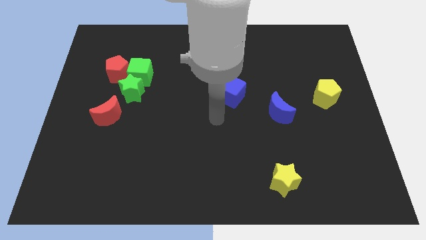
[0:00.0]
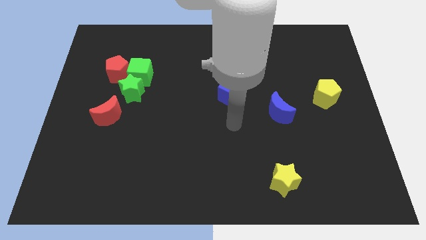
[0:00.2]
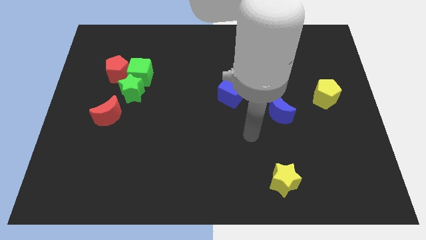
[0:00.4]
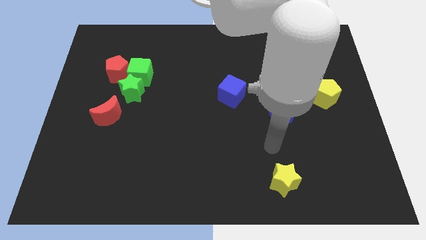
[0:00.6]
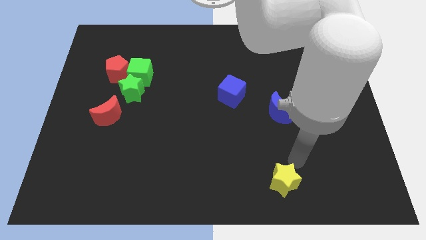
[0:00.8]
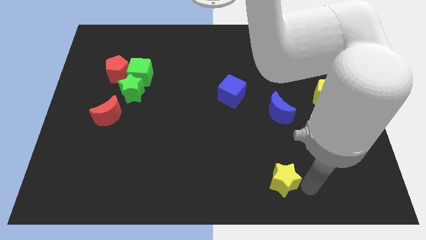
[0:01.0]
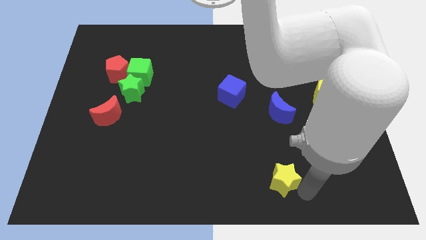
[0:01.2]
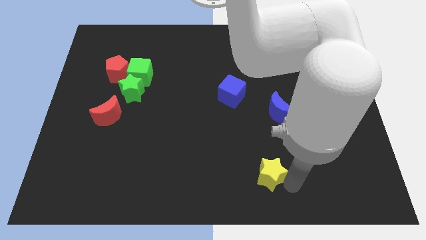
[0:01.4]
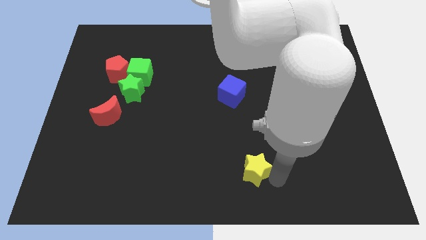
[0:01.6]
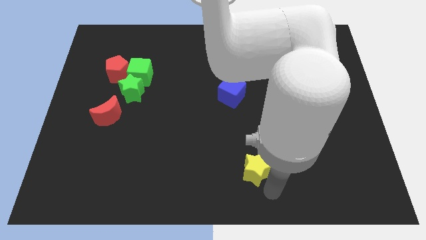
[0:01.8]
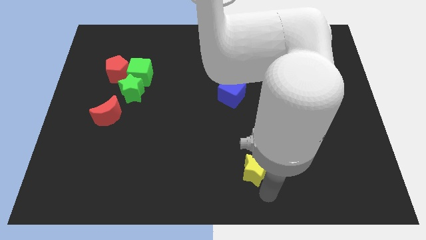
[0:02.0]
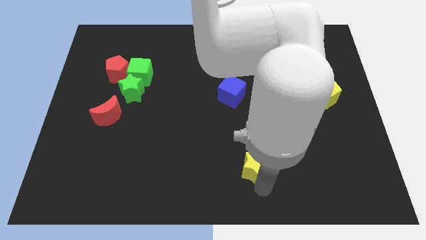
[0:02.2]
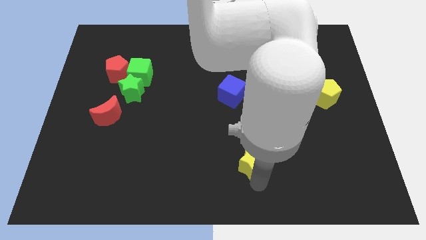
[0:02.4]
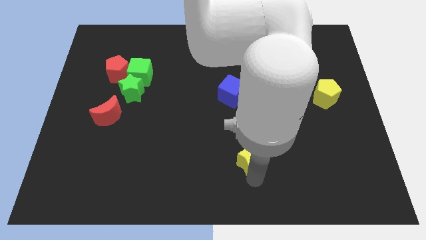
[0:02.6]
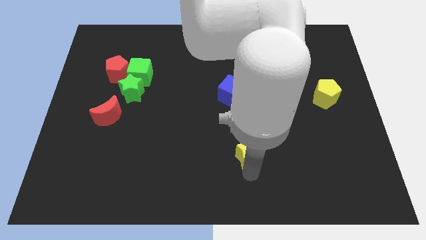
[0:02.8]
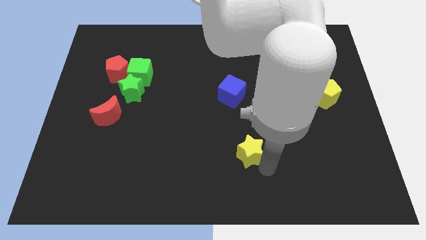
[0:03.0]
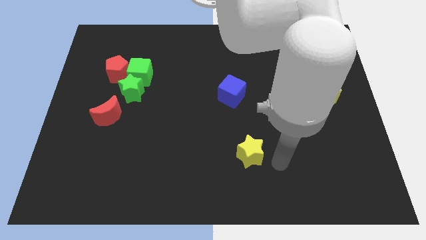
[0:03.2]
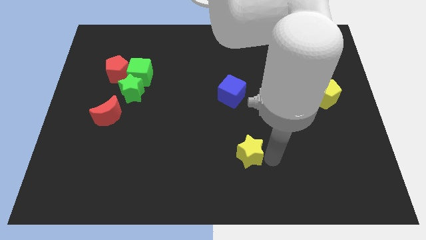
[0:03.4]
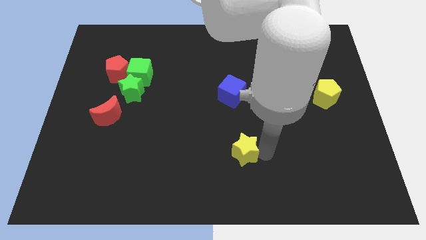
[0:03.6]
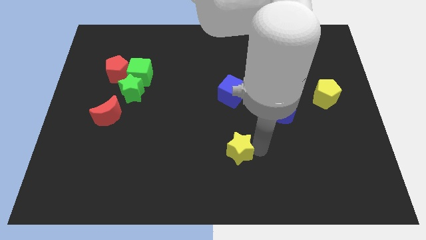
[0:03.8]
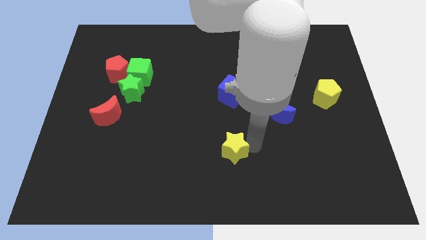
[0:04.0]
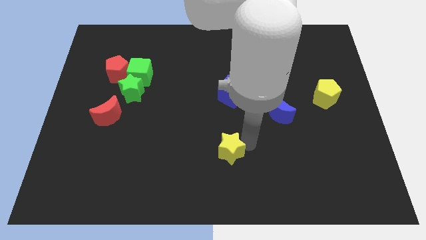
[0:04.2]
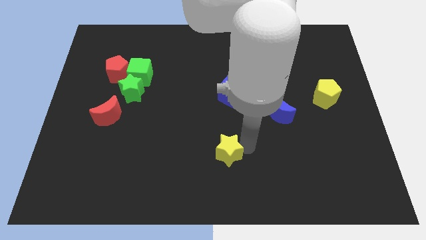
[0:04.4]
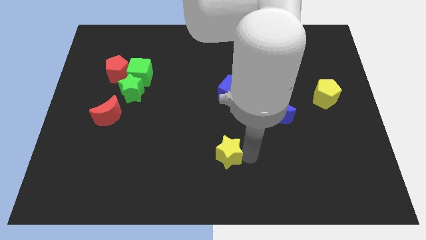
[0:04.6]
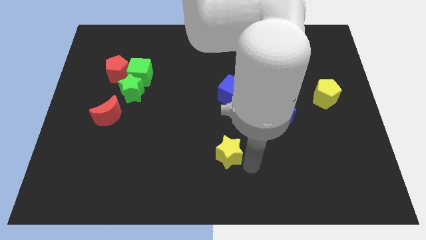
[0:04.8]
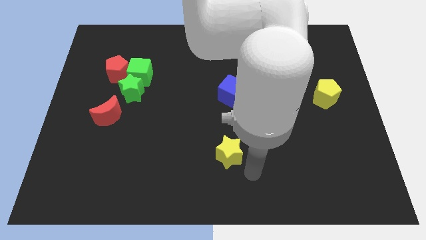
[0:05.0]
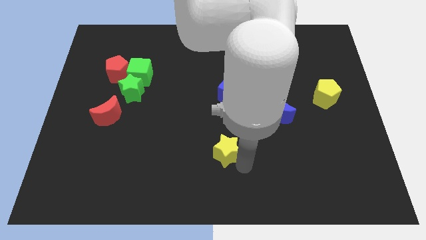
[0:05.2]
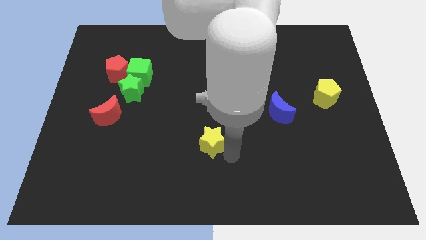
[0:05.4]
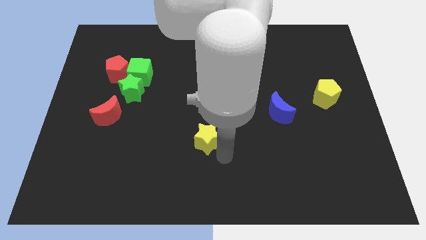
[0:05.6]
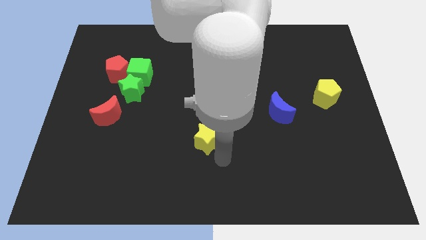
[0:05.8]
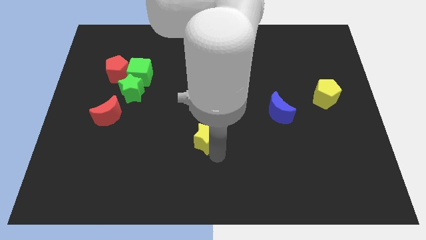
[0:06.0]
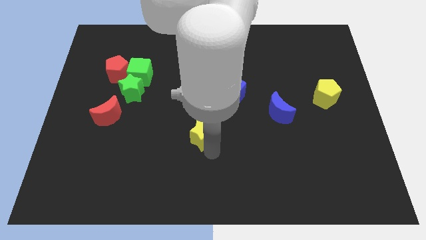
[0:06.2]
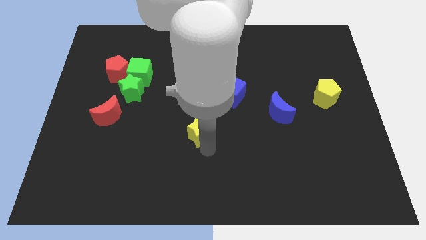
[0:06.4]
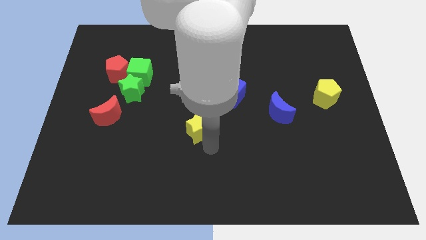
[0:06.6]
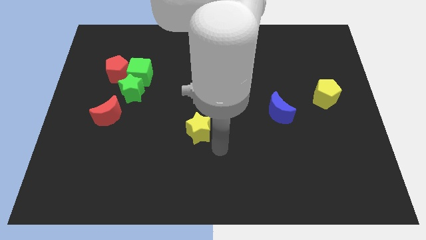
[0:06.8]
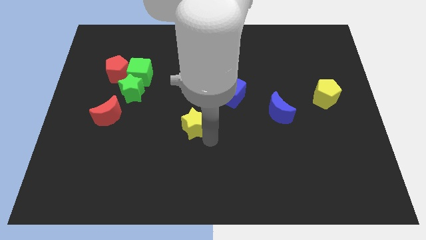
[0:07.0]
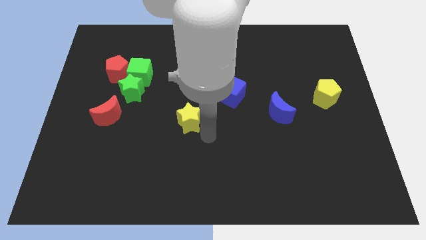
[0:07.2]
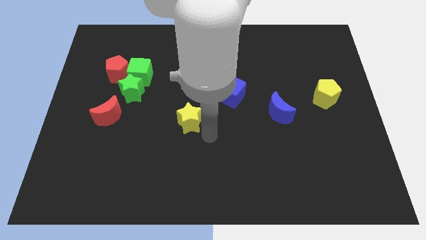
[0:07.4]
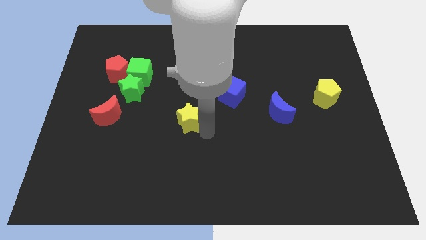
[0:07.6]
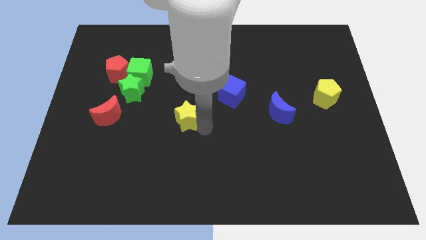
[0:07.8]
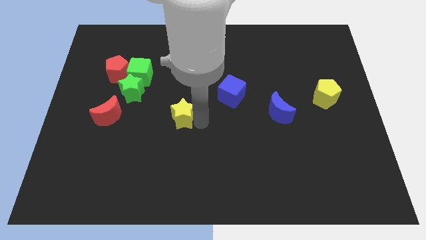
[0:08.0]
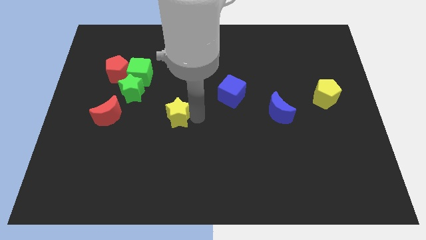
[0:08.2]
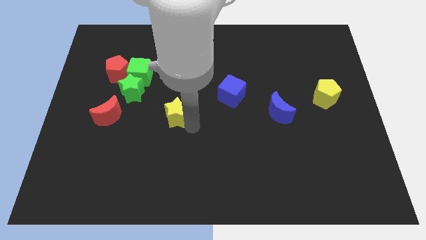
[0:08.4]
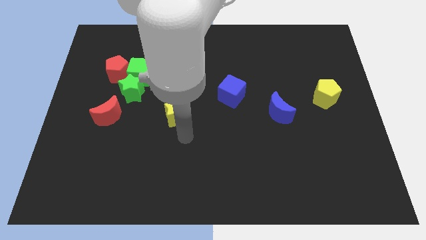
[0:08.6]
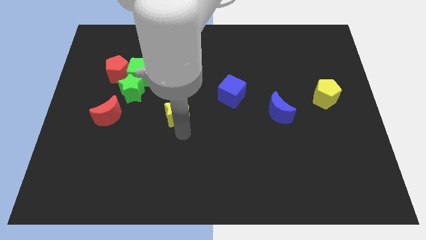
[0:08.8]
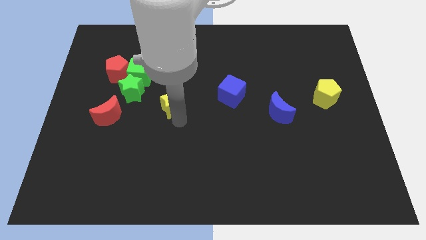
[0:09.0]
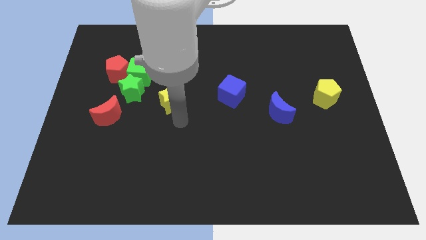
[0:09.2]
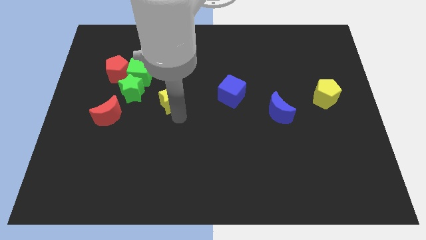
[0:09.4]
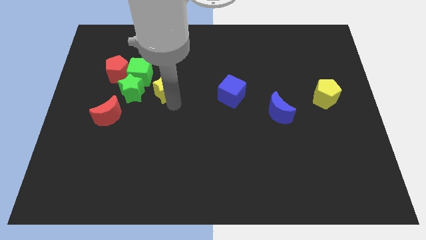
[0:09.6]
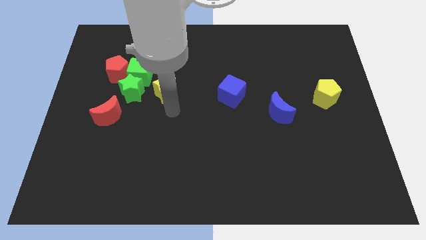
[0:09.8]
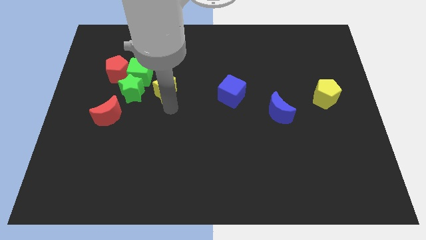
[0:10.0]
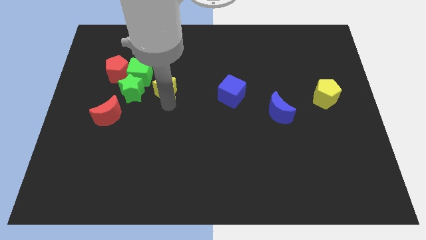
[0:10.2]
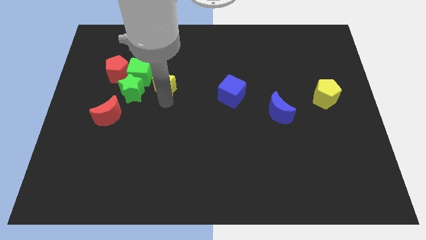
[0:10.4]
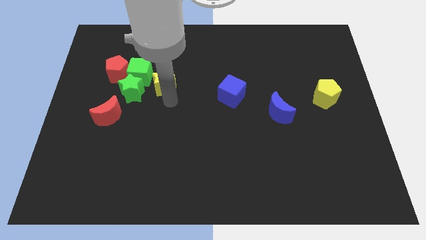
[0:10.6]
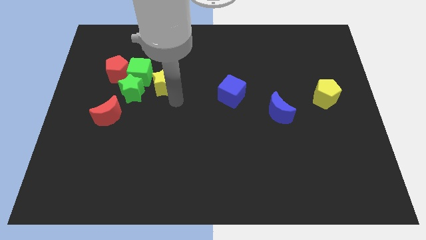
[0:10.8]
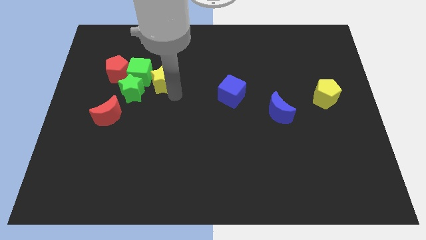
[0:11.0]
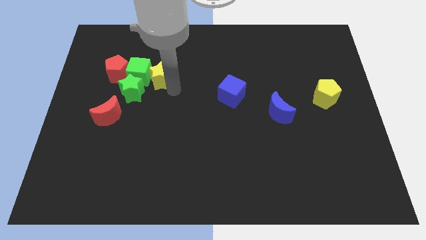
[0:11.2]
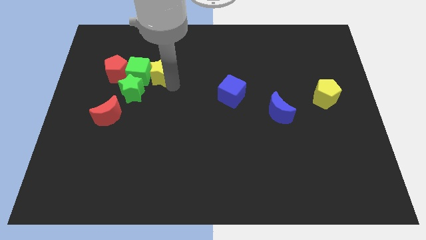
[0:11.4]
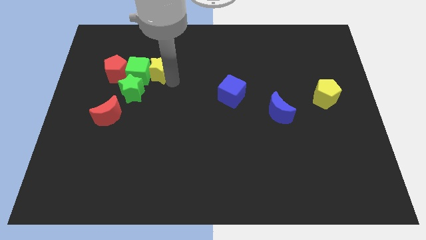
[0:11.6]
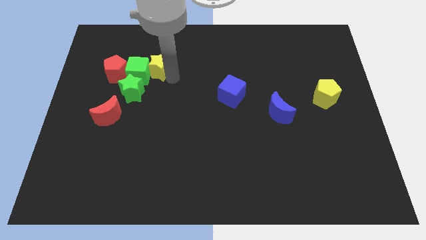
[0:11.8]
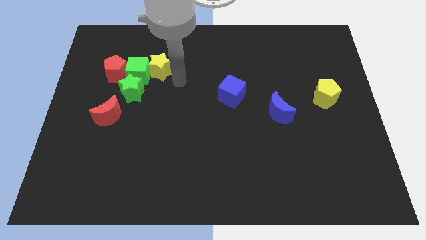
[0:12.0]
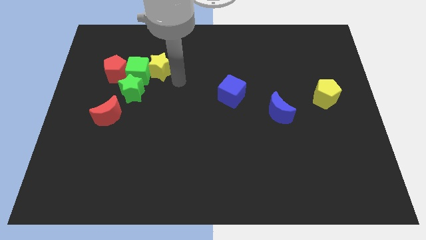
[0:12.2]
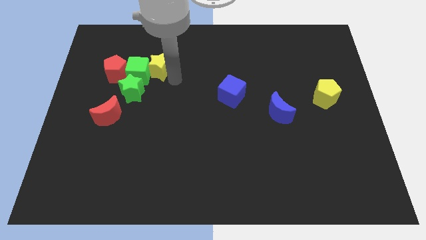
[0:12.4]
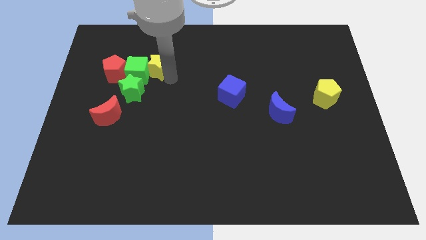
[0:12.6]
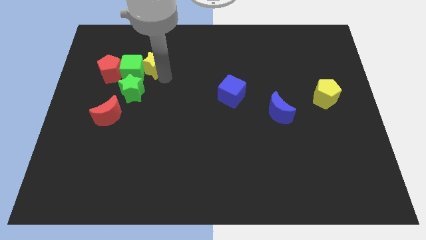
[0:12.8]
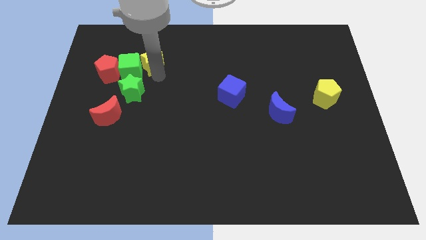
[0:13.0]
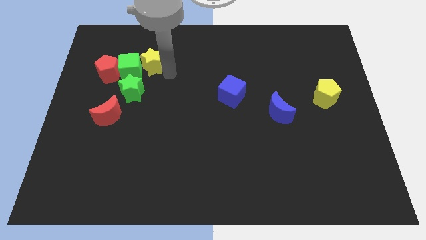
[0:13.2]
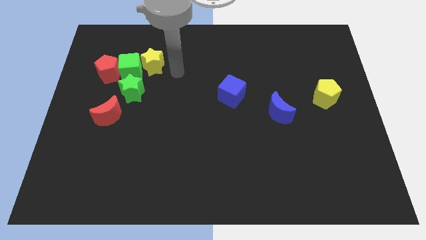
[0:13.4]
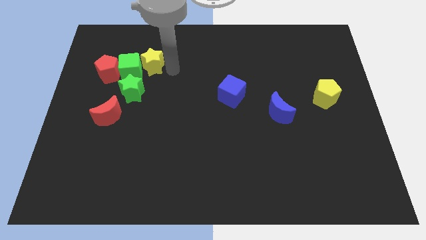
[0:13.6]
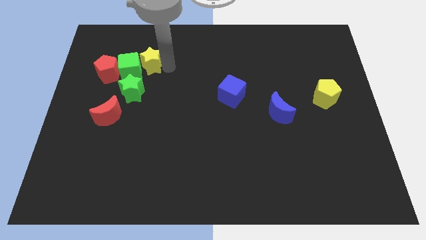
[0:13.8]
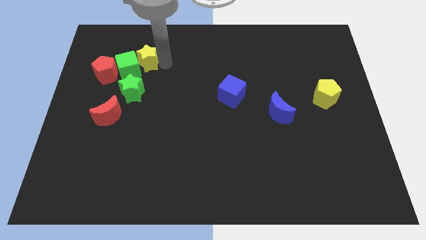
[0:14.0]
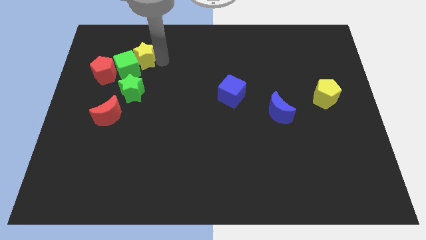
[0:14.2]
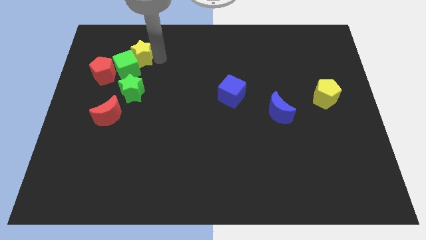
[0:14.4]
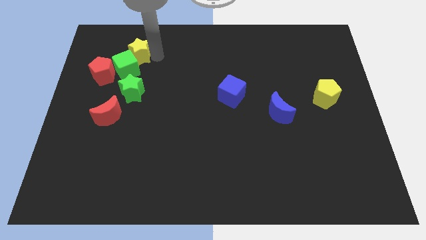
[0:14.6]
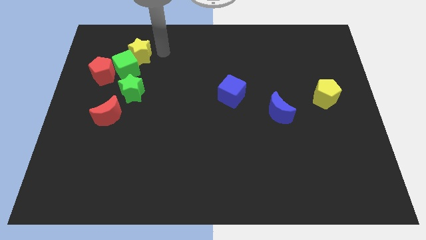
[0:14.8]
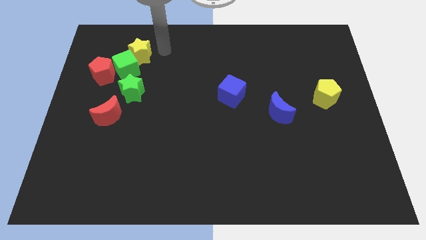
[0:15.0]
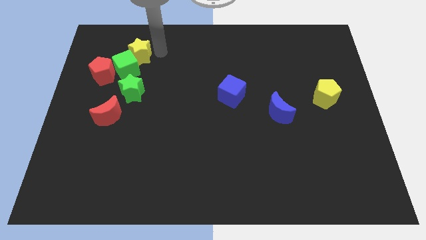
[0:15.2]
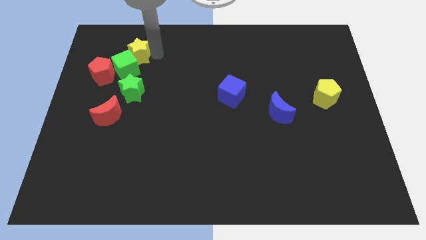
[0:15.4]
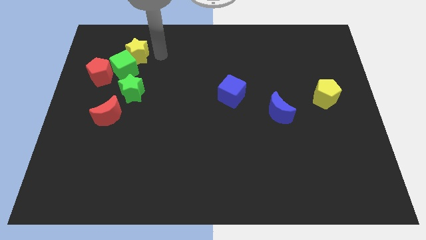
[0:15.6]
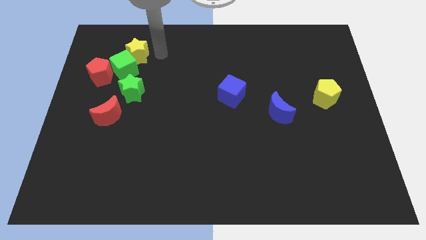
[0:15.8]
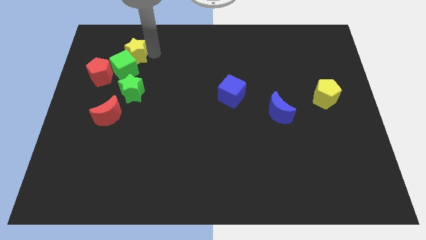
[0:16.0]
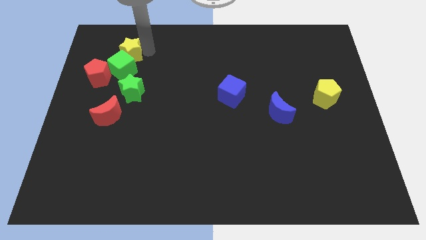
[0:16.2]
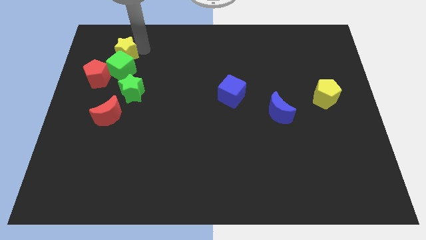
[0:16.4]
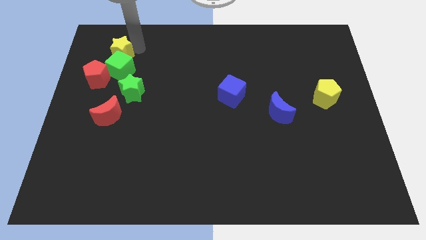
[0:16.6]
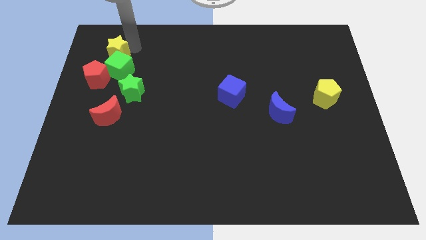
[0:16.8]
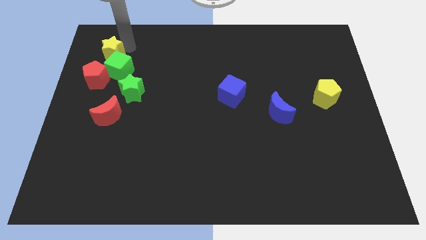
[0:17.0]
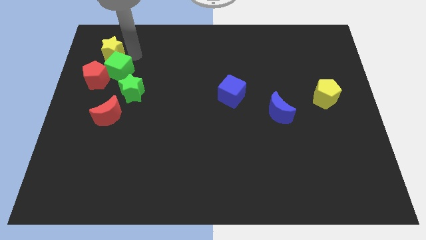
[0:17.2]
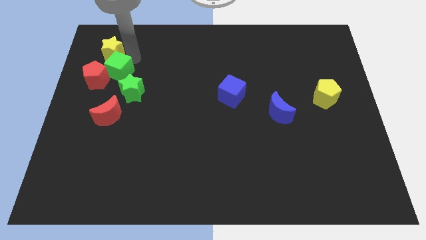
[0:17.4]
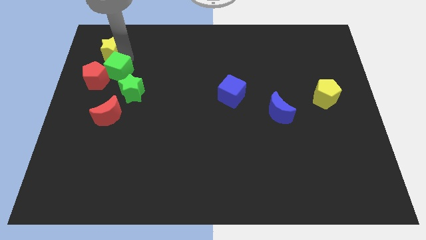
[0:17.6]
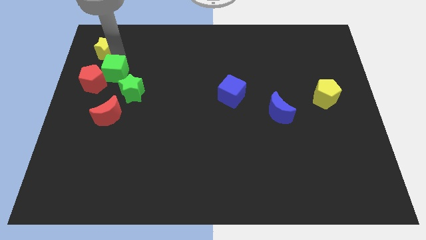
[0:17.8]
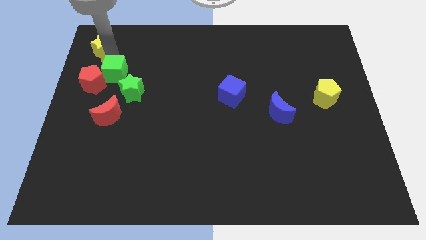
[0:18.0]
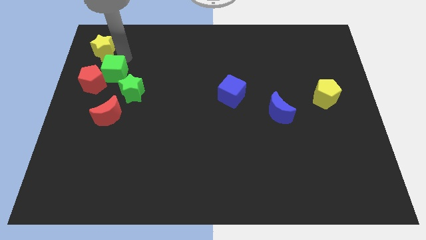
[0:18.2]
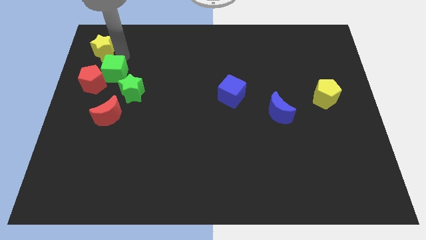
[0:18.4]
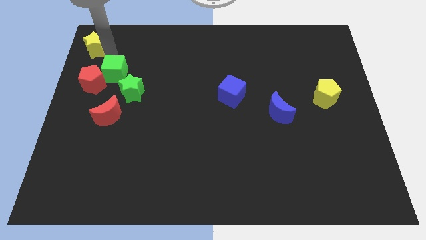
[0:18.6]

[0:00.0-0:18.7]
move the yellow star to the top left of the board
